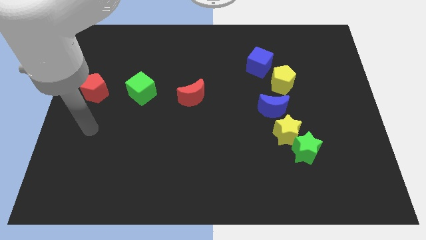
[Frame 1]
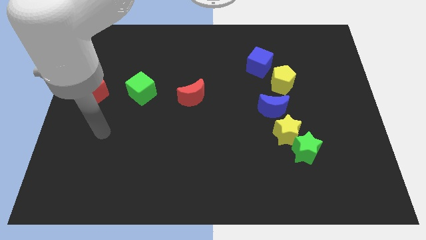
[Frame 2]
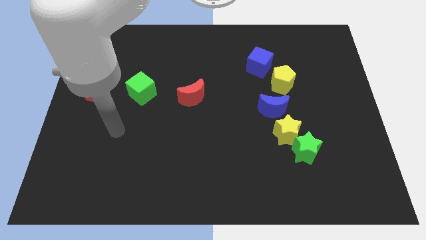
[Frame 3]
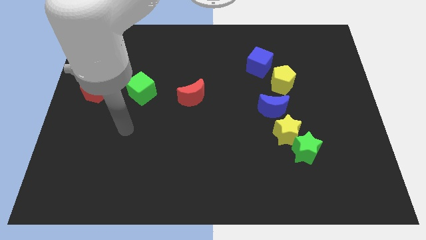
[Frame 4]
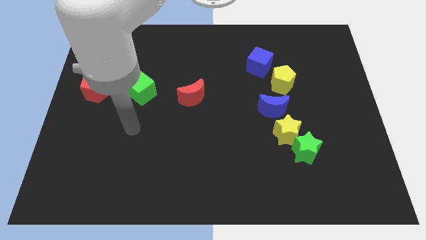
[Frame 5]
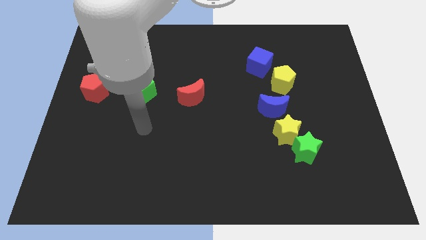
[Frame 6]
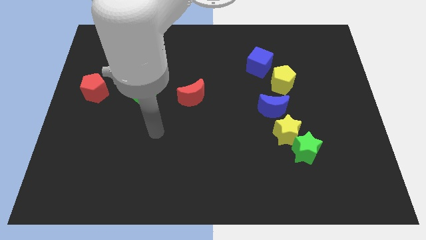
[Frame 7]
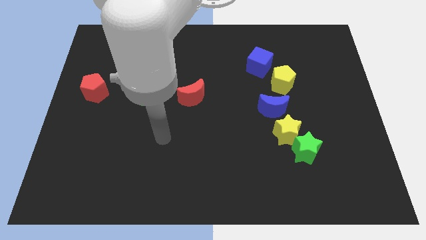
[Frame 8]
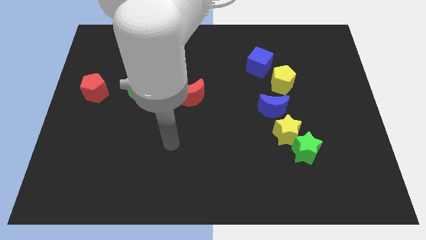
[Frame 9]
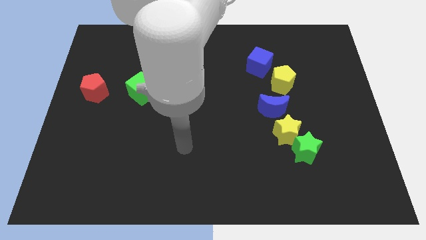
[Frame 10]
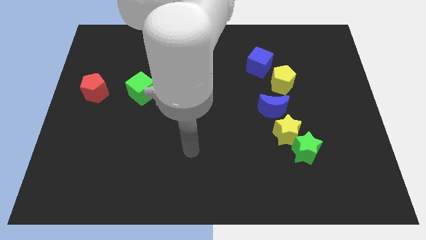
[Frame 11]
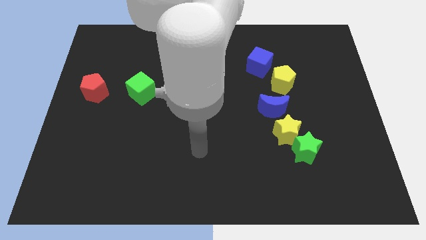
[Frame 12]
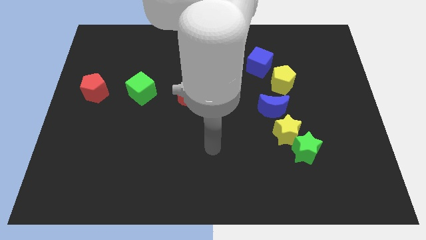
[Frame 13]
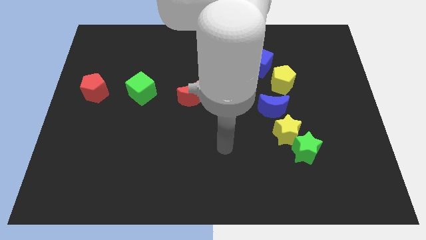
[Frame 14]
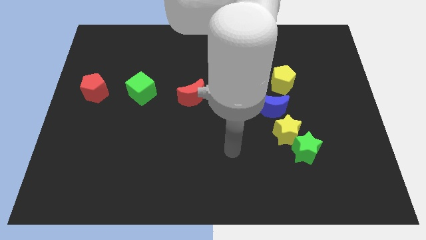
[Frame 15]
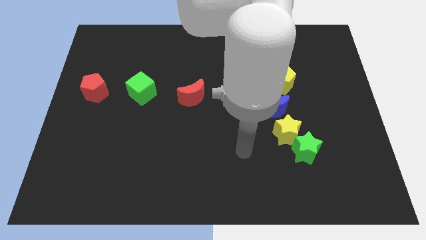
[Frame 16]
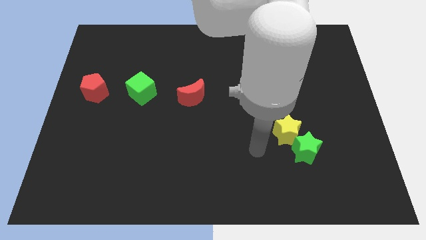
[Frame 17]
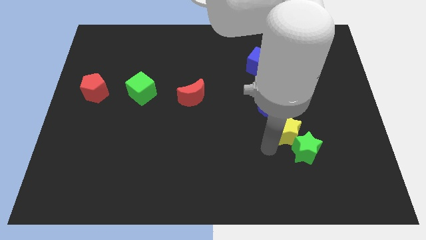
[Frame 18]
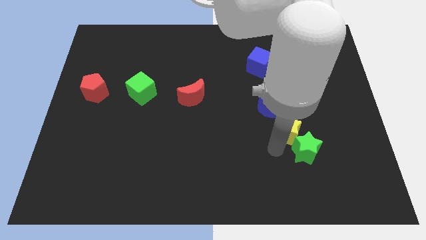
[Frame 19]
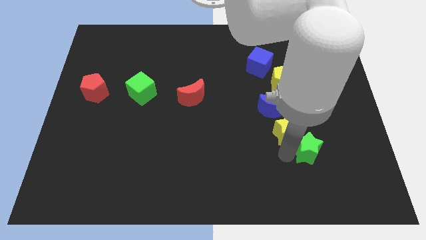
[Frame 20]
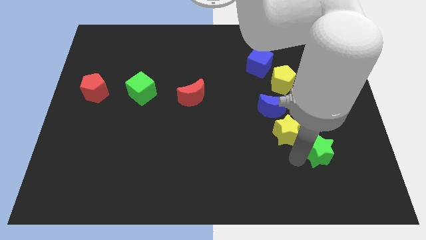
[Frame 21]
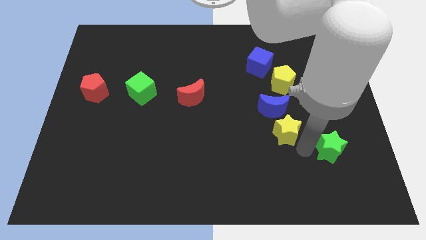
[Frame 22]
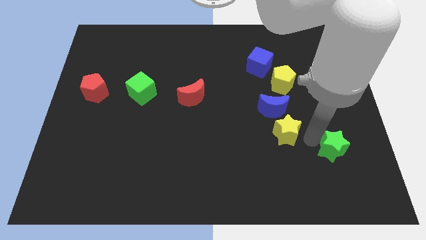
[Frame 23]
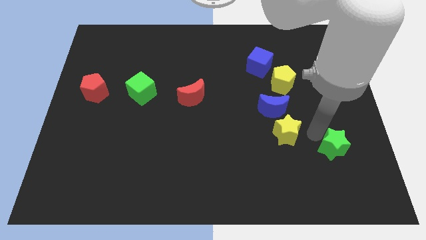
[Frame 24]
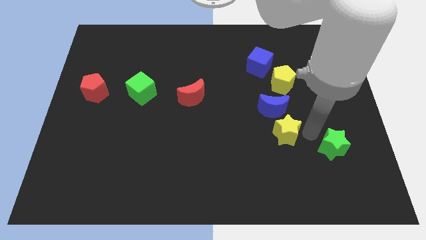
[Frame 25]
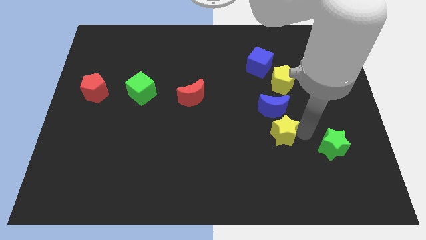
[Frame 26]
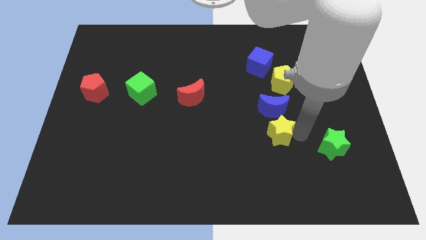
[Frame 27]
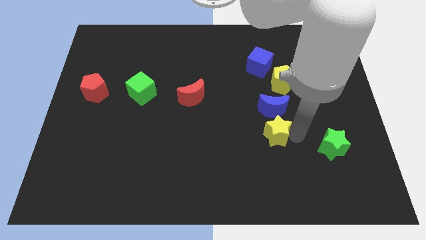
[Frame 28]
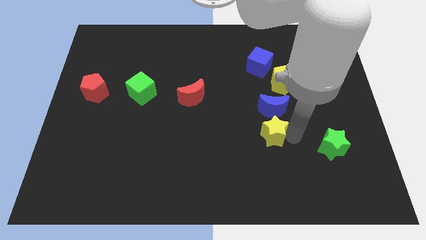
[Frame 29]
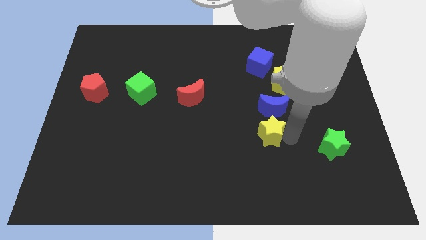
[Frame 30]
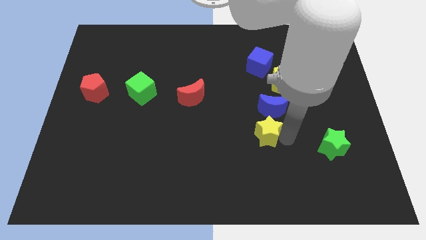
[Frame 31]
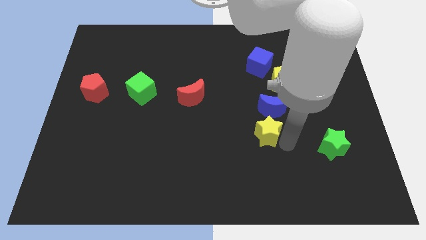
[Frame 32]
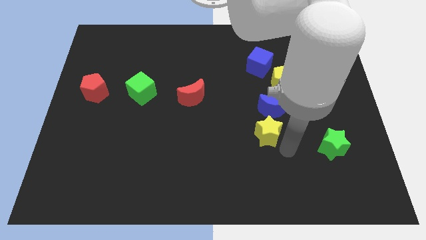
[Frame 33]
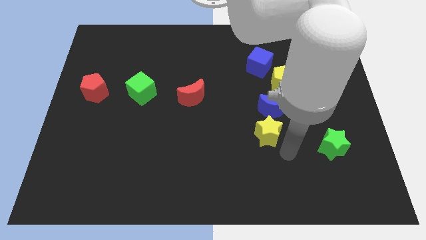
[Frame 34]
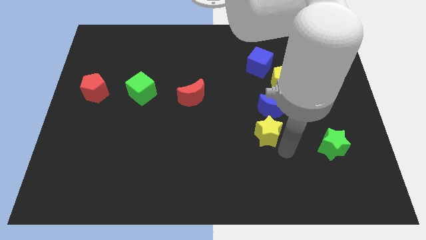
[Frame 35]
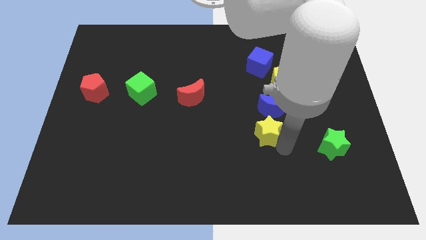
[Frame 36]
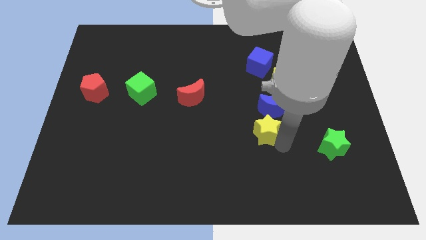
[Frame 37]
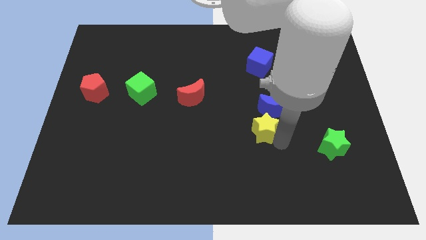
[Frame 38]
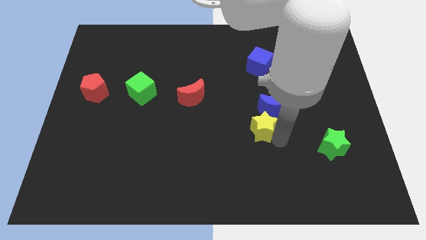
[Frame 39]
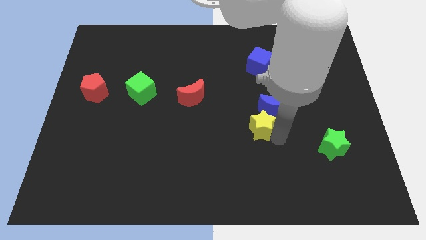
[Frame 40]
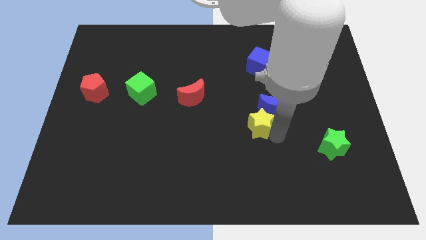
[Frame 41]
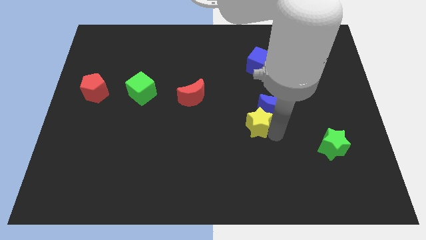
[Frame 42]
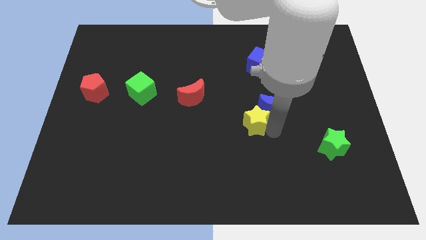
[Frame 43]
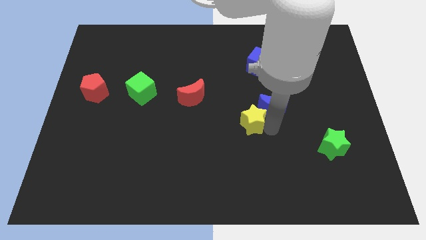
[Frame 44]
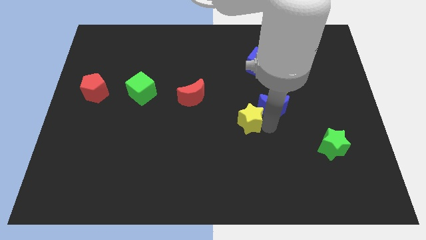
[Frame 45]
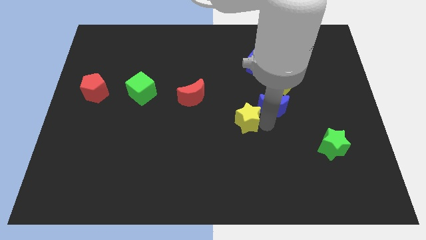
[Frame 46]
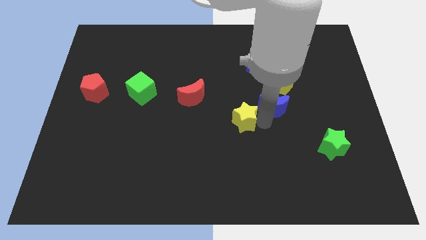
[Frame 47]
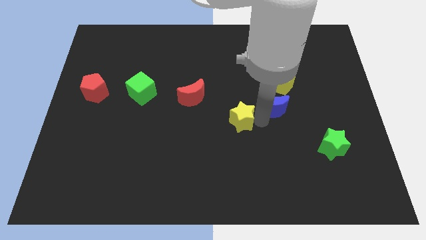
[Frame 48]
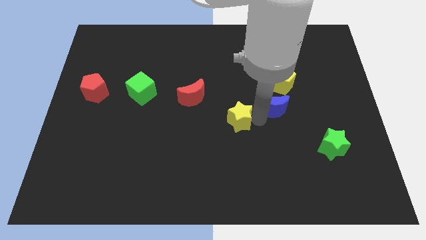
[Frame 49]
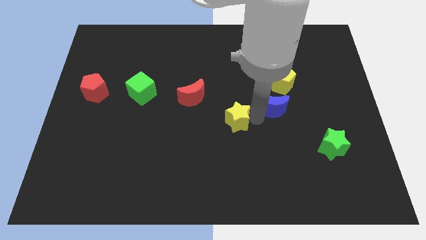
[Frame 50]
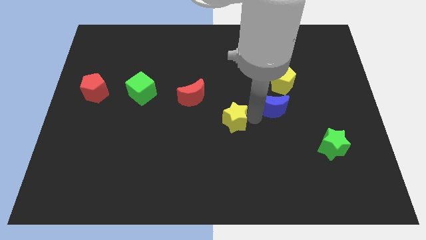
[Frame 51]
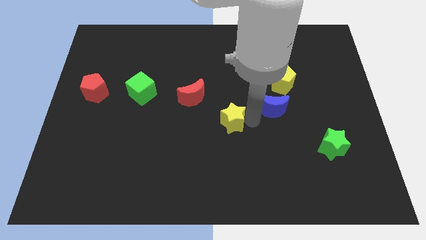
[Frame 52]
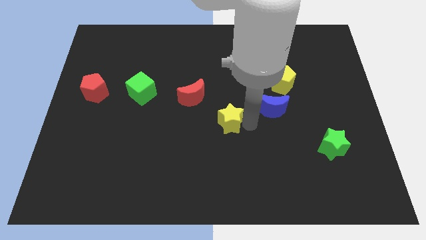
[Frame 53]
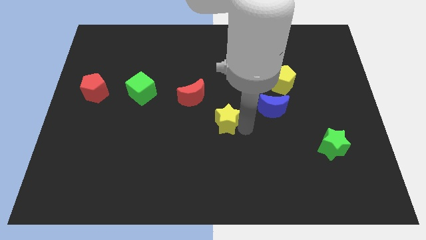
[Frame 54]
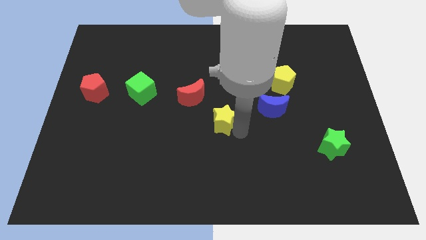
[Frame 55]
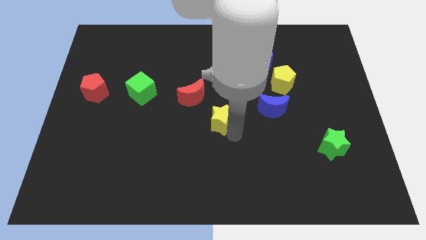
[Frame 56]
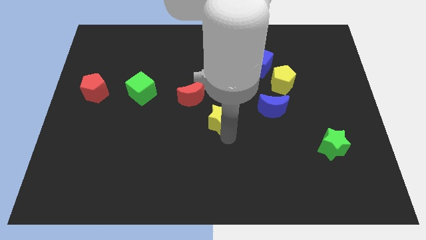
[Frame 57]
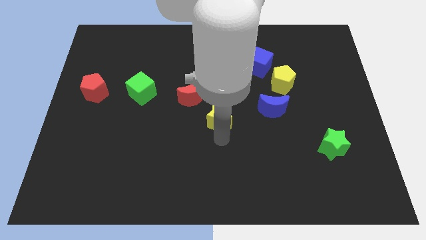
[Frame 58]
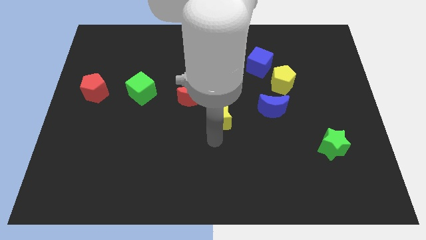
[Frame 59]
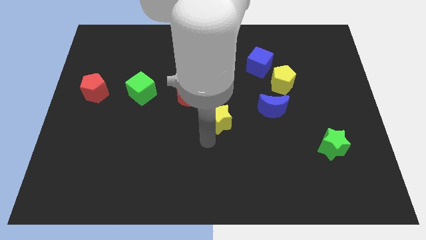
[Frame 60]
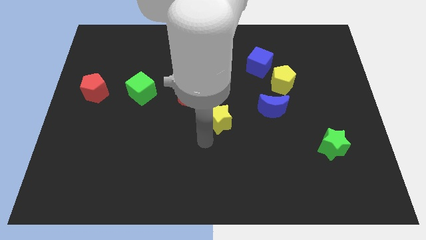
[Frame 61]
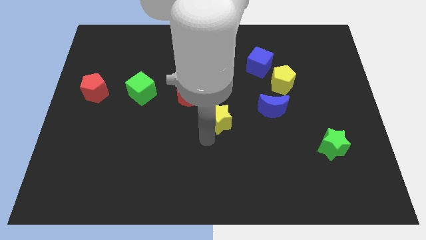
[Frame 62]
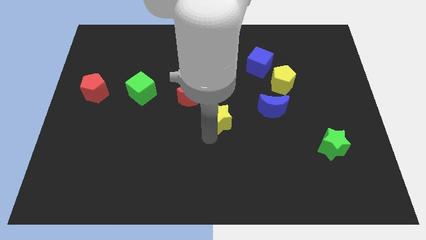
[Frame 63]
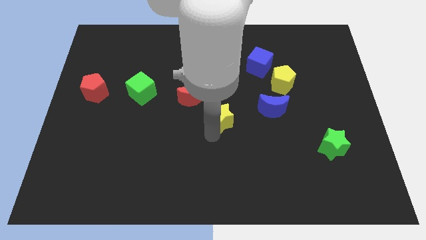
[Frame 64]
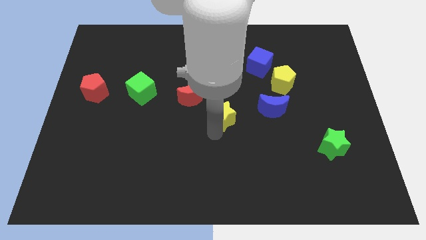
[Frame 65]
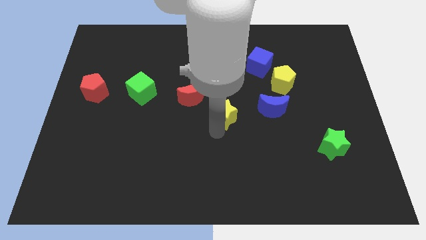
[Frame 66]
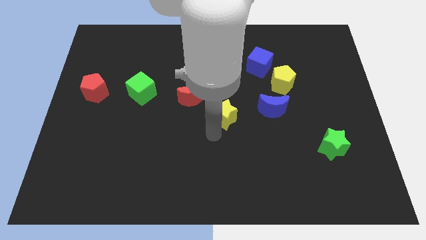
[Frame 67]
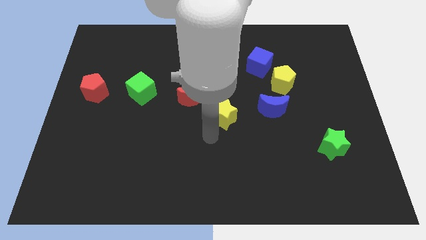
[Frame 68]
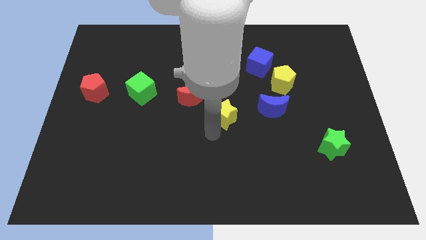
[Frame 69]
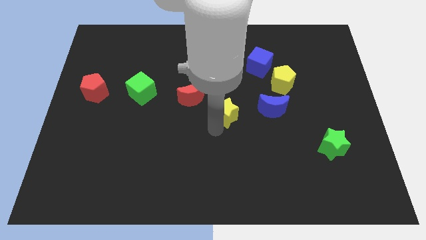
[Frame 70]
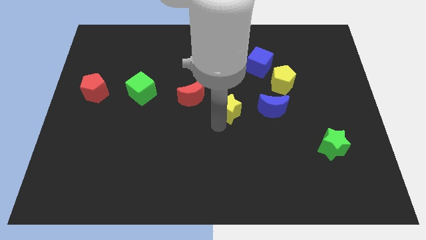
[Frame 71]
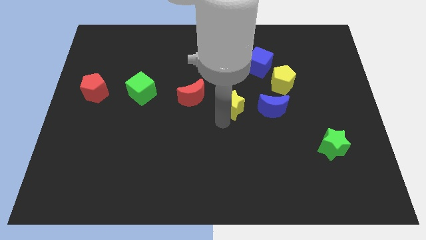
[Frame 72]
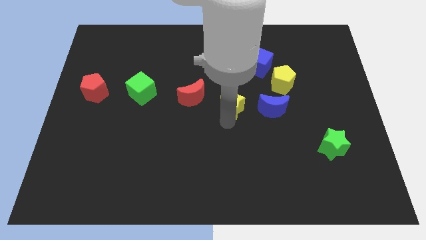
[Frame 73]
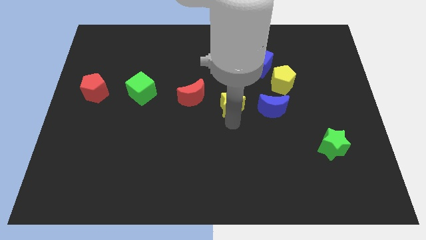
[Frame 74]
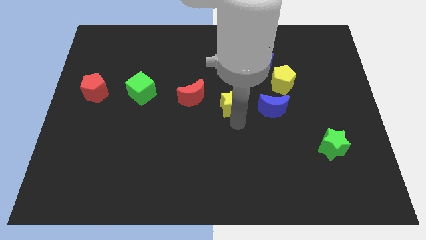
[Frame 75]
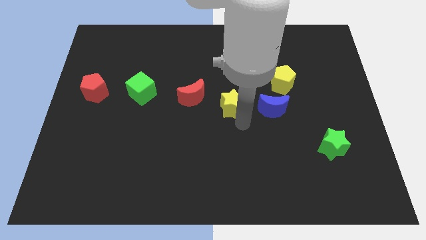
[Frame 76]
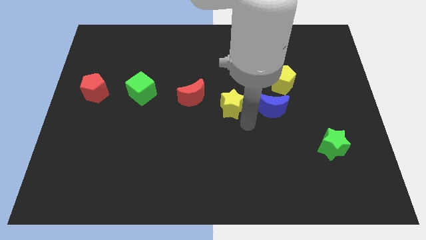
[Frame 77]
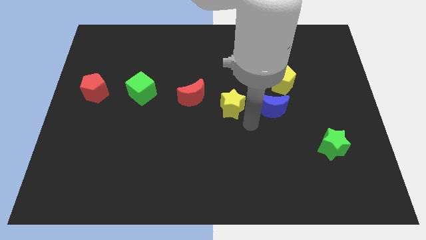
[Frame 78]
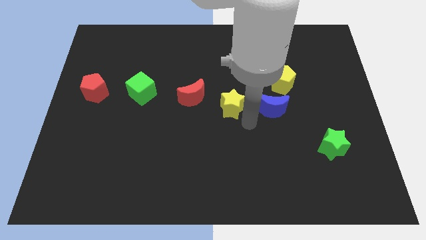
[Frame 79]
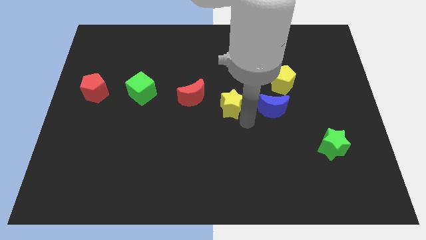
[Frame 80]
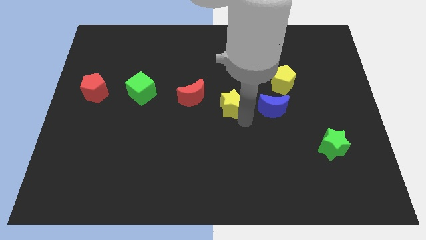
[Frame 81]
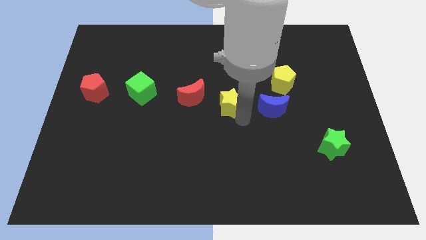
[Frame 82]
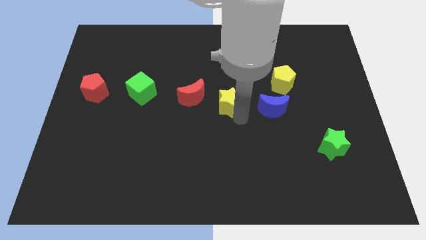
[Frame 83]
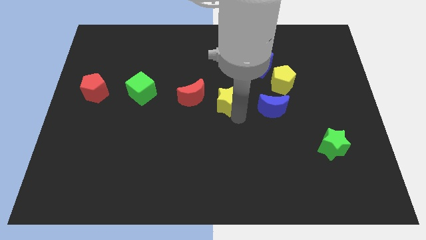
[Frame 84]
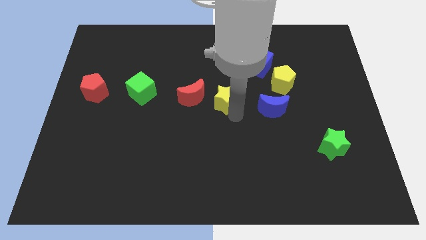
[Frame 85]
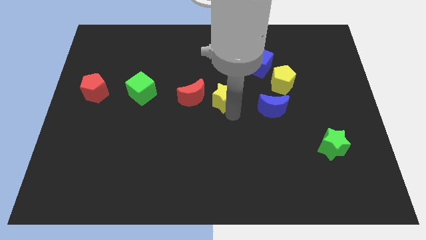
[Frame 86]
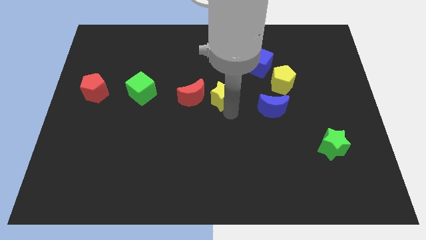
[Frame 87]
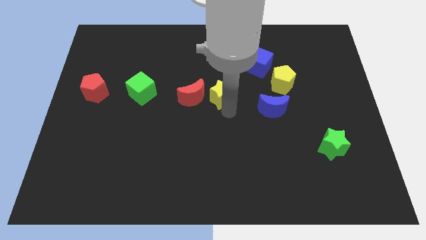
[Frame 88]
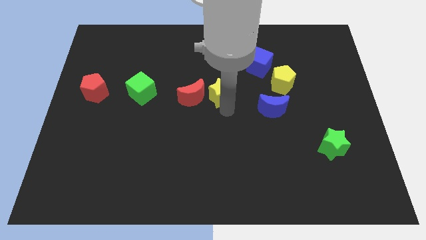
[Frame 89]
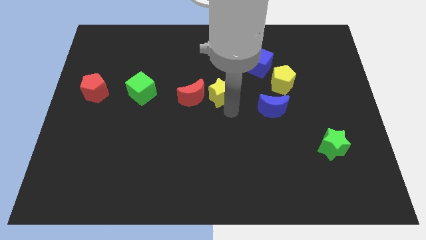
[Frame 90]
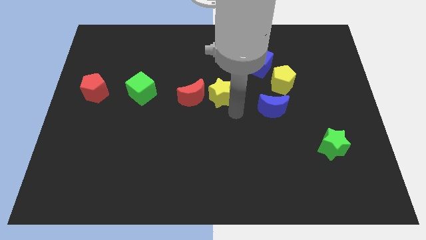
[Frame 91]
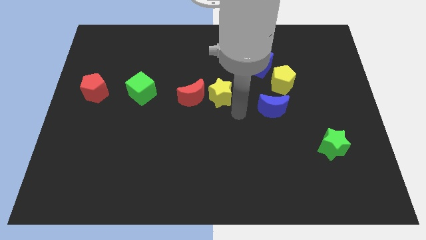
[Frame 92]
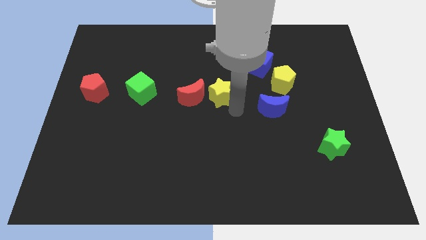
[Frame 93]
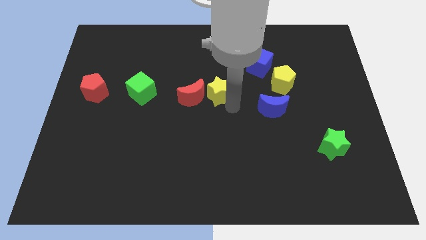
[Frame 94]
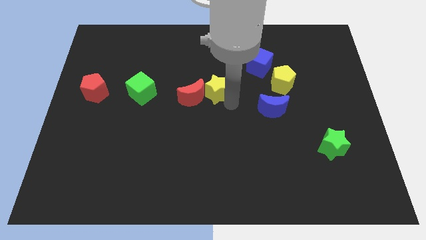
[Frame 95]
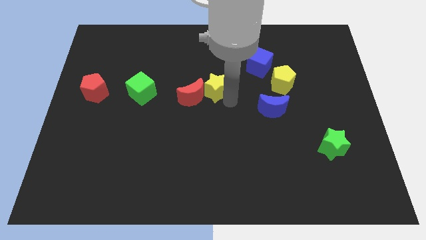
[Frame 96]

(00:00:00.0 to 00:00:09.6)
push the yellow star up and then to the left
